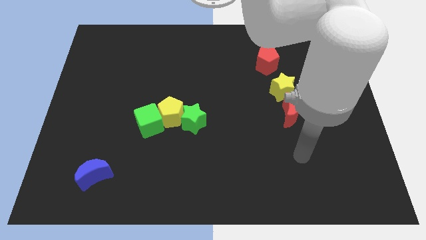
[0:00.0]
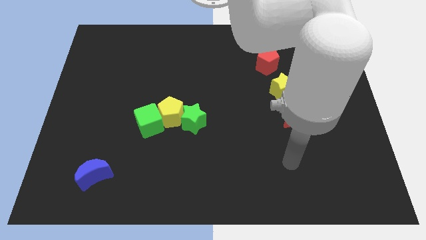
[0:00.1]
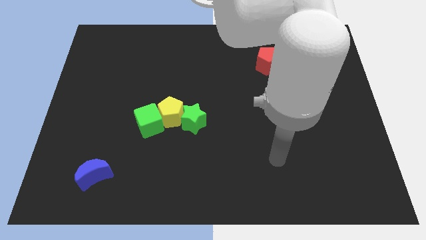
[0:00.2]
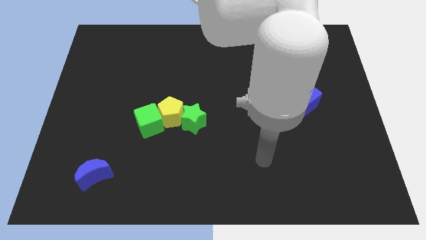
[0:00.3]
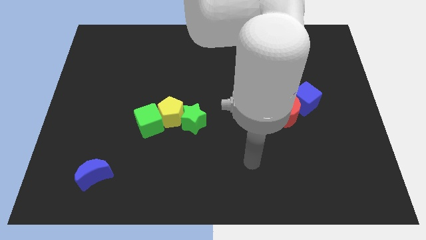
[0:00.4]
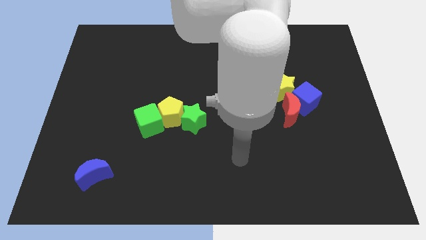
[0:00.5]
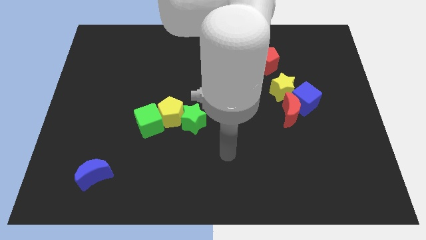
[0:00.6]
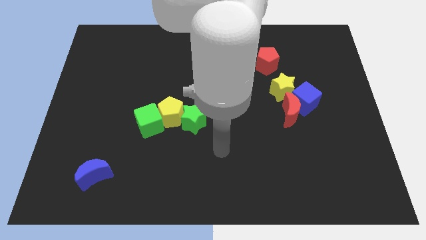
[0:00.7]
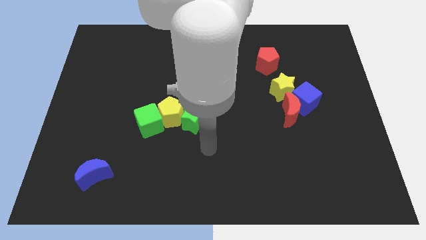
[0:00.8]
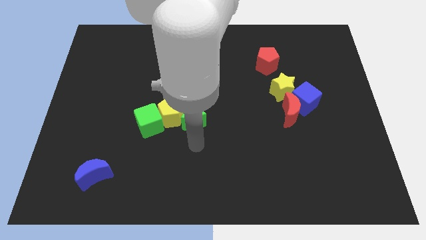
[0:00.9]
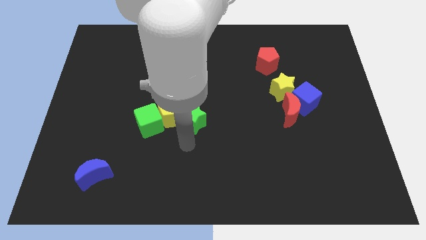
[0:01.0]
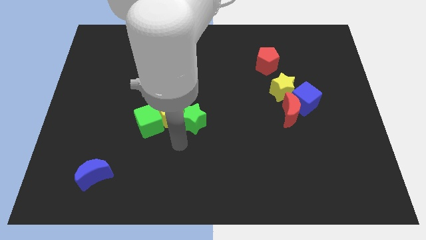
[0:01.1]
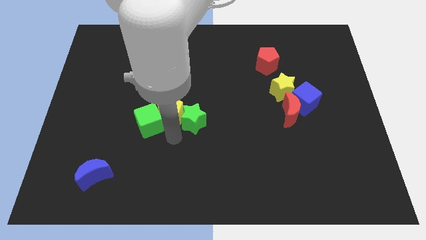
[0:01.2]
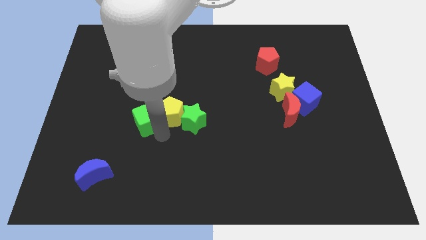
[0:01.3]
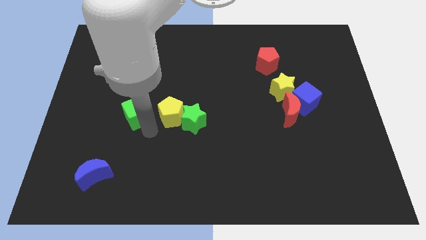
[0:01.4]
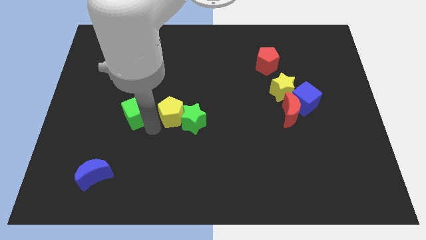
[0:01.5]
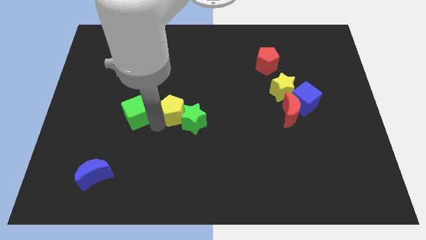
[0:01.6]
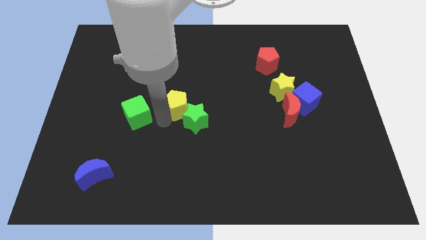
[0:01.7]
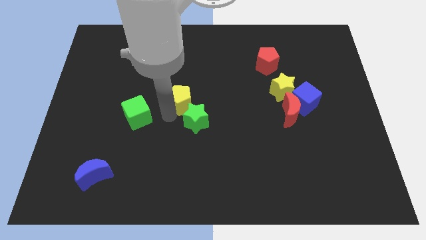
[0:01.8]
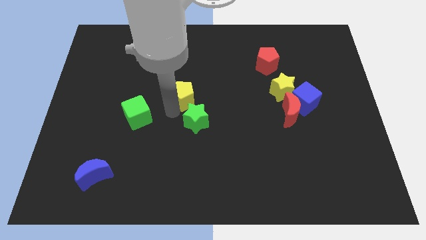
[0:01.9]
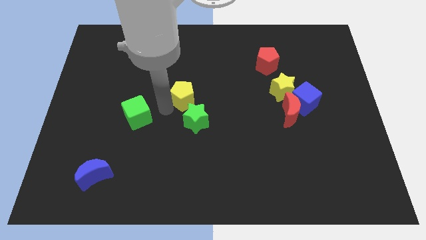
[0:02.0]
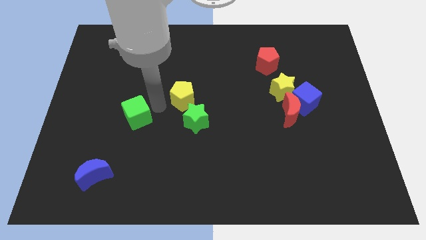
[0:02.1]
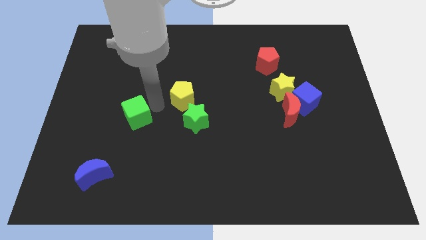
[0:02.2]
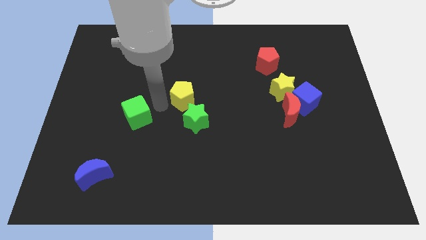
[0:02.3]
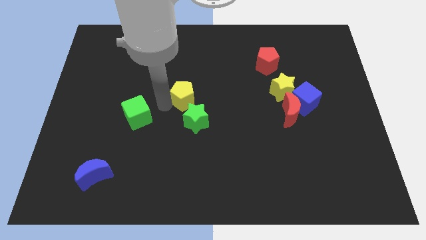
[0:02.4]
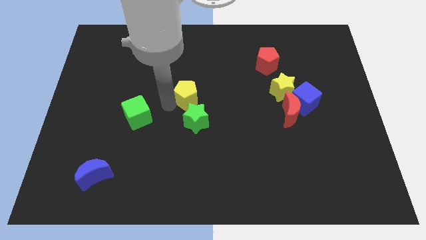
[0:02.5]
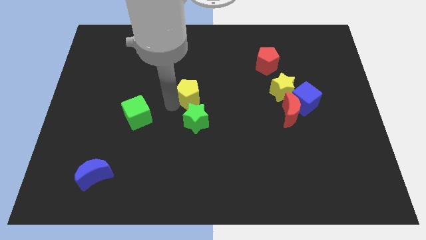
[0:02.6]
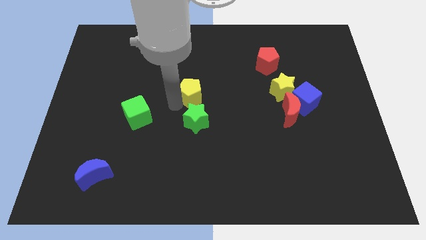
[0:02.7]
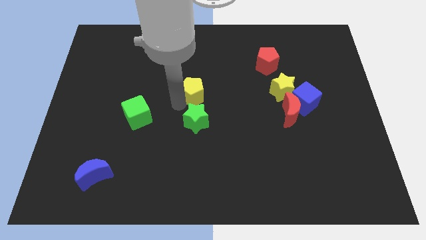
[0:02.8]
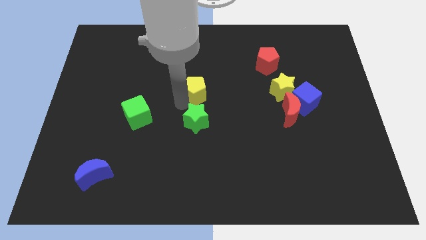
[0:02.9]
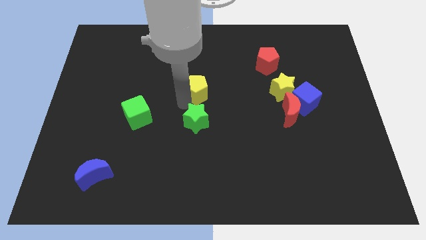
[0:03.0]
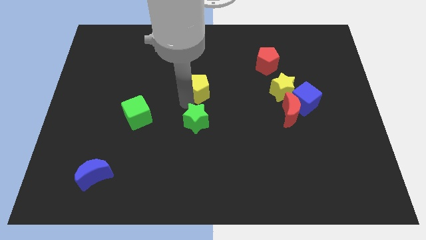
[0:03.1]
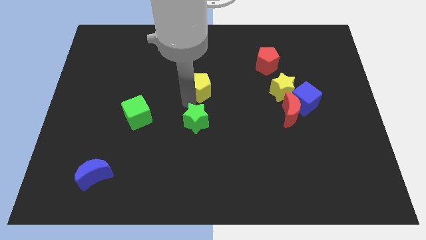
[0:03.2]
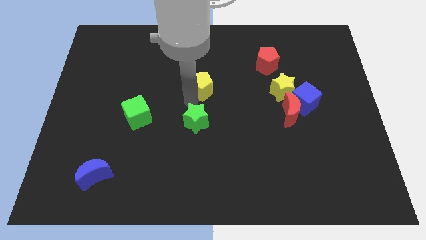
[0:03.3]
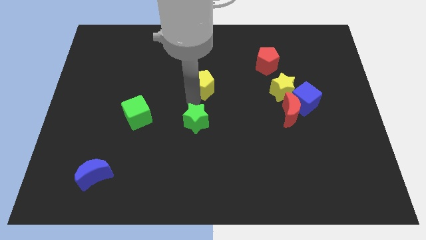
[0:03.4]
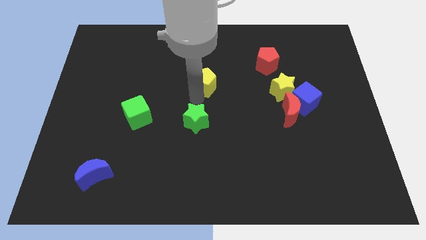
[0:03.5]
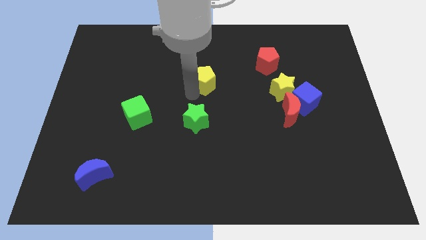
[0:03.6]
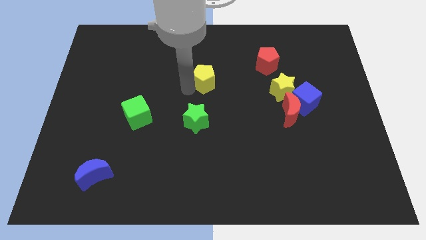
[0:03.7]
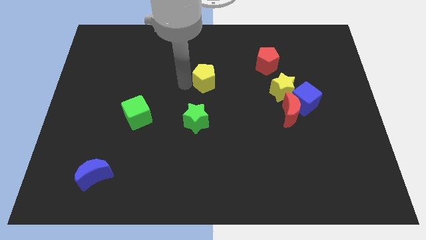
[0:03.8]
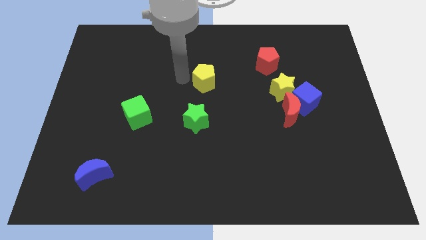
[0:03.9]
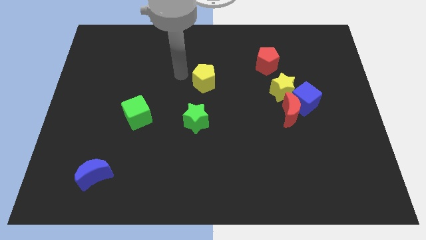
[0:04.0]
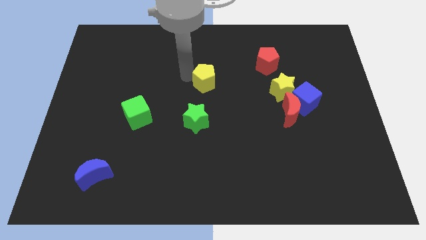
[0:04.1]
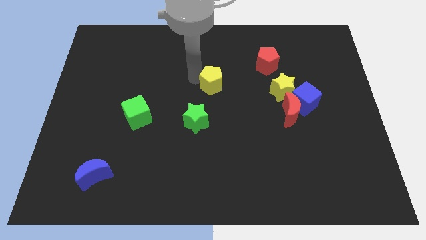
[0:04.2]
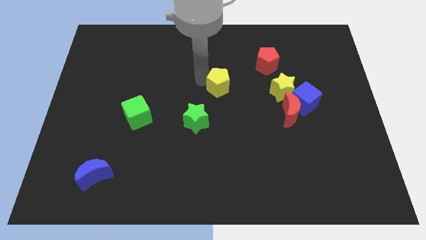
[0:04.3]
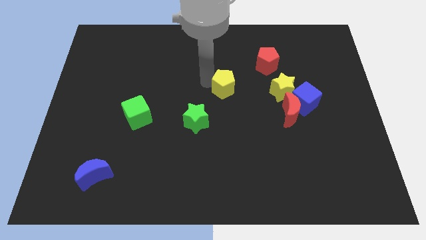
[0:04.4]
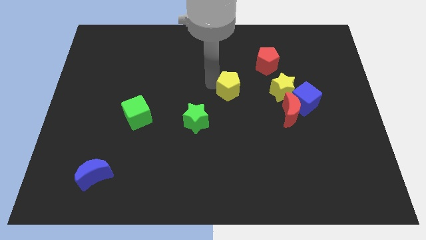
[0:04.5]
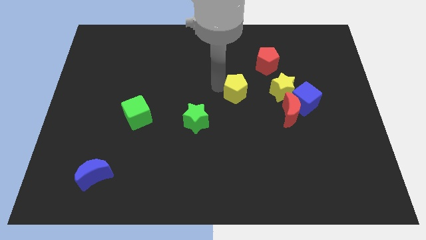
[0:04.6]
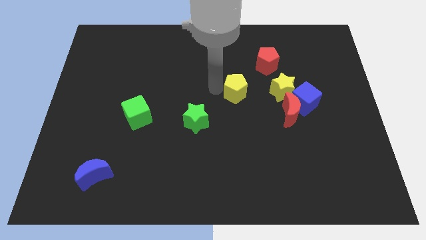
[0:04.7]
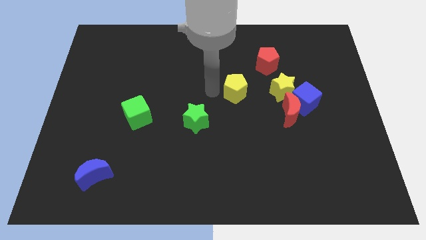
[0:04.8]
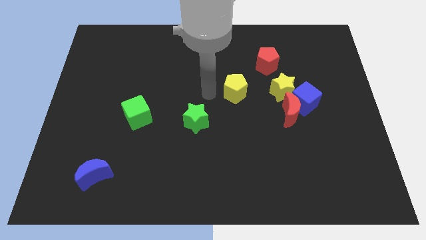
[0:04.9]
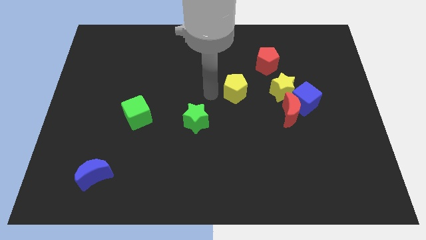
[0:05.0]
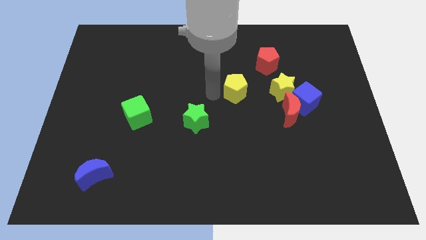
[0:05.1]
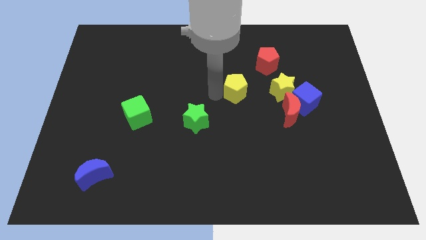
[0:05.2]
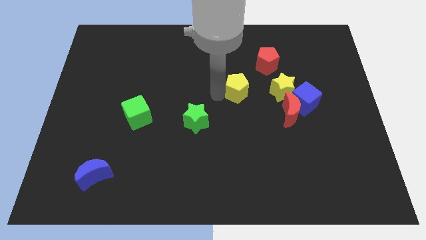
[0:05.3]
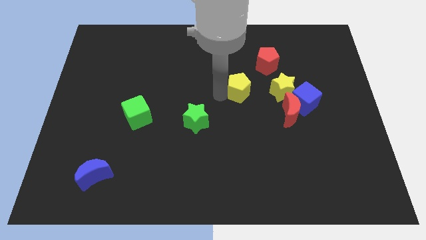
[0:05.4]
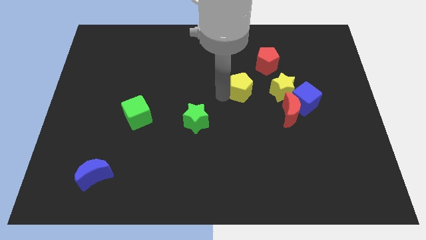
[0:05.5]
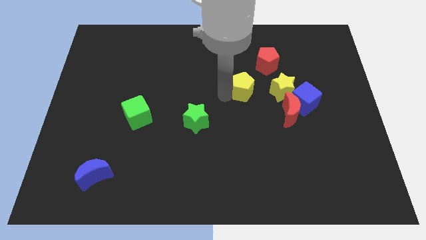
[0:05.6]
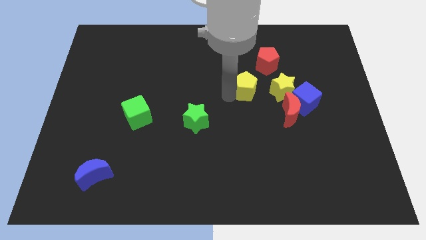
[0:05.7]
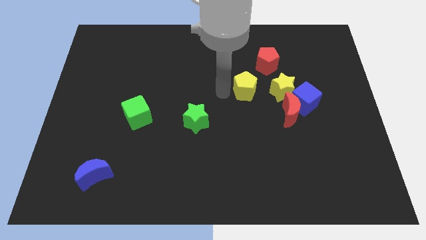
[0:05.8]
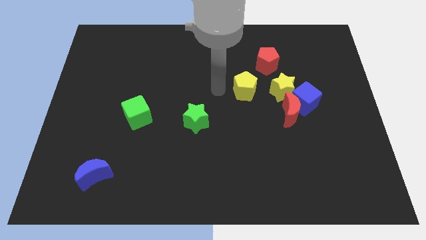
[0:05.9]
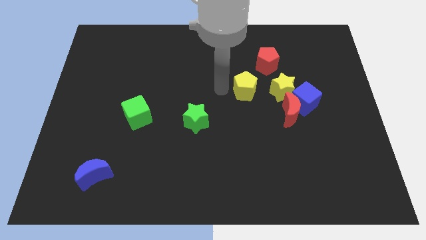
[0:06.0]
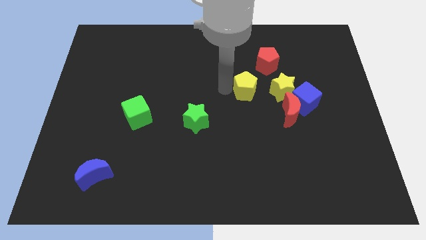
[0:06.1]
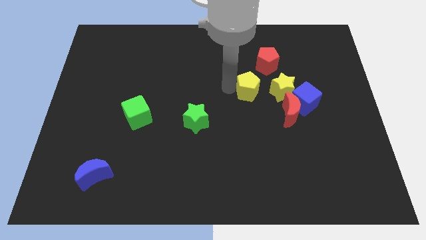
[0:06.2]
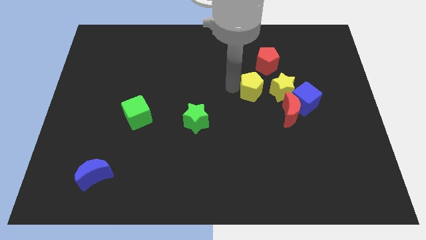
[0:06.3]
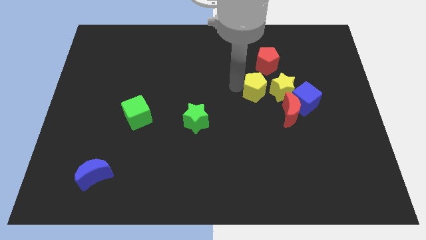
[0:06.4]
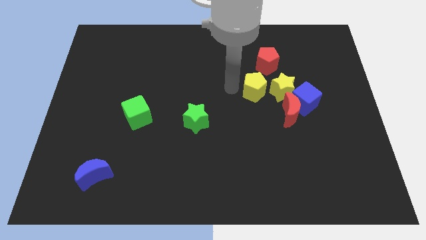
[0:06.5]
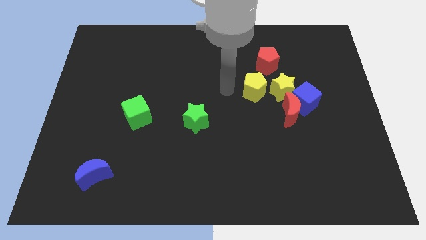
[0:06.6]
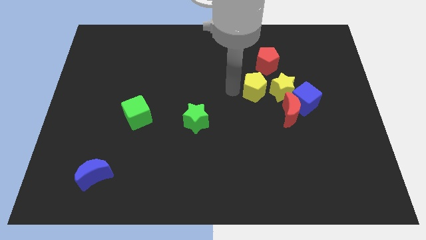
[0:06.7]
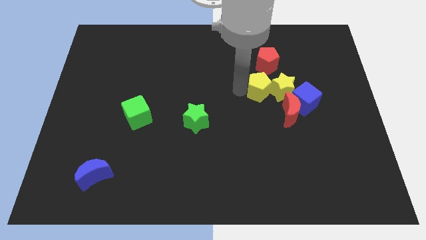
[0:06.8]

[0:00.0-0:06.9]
push the yellow pentagon next to the yellow star
